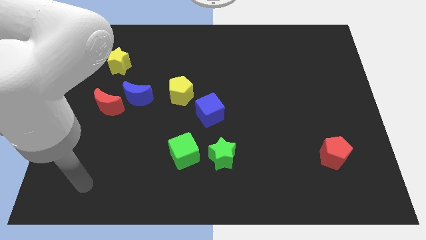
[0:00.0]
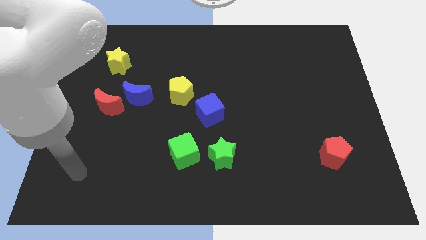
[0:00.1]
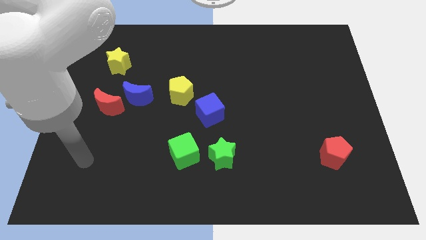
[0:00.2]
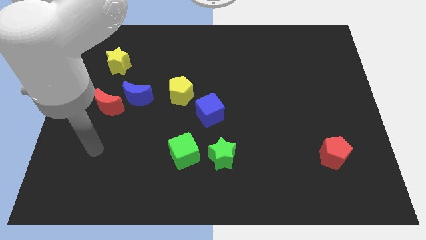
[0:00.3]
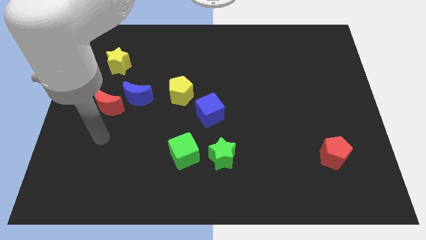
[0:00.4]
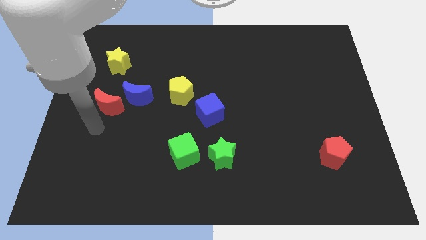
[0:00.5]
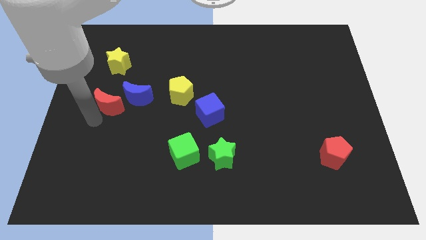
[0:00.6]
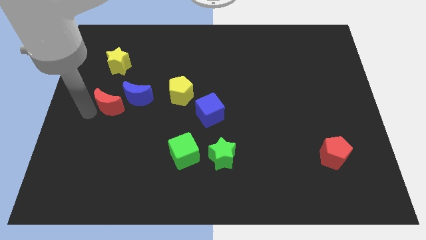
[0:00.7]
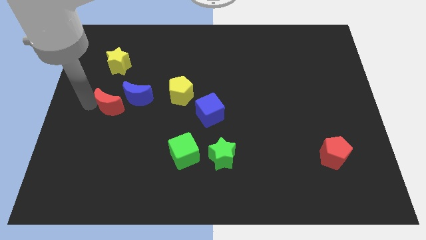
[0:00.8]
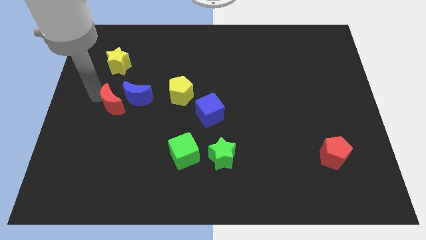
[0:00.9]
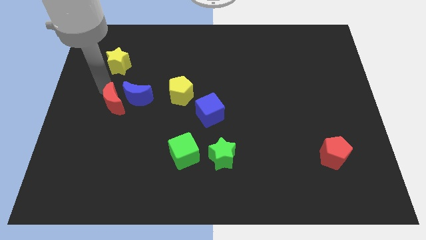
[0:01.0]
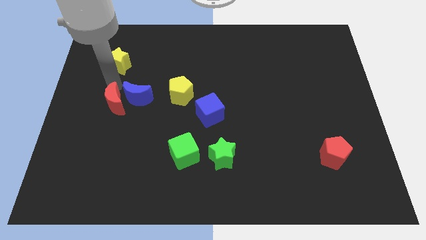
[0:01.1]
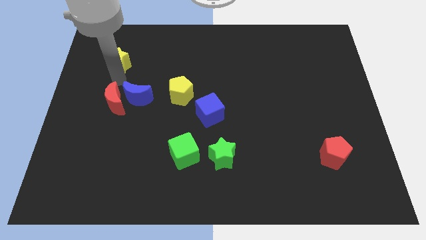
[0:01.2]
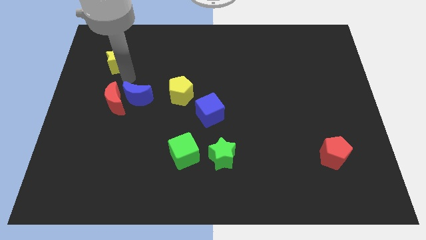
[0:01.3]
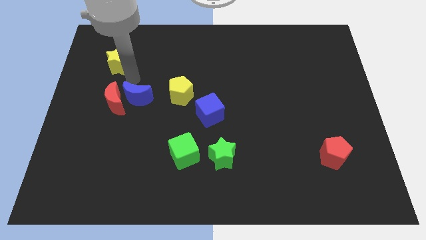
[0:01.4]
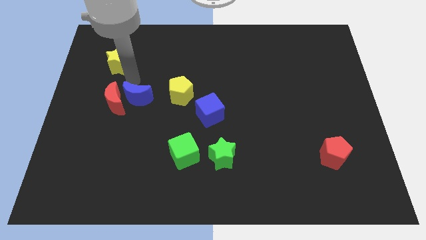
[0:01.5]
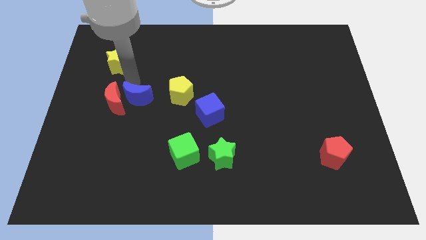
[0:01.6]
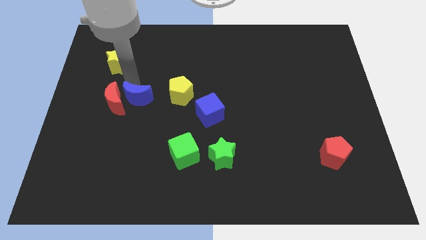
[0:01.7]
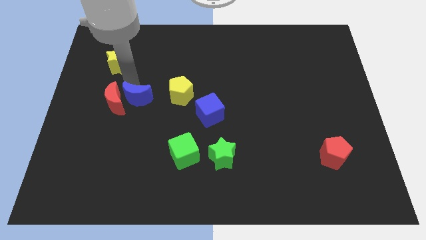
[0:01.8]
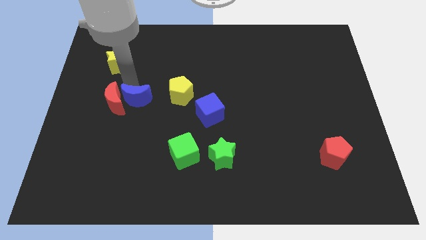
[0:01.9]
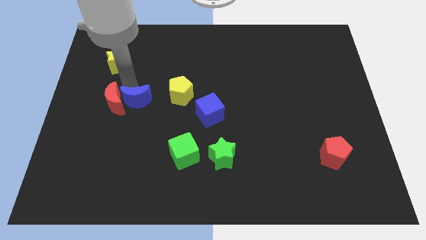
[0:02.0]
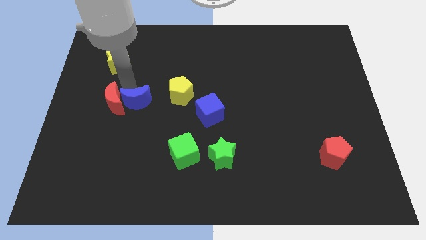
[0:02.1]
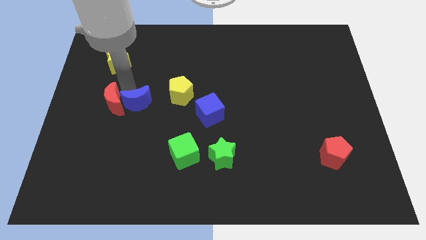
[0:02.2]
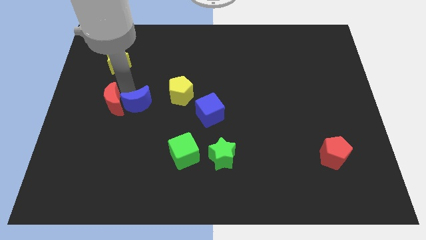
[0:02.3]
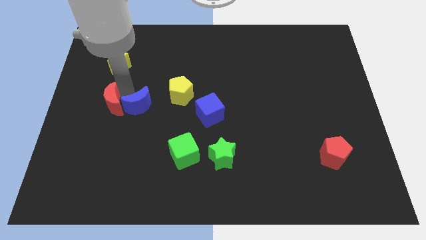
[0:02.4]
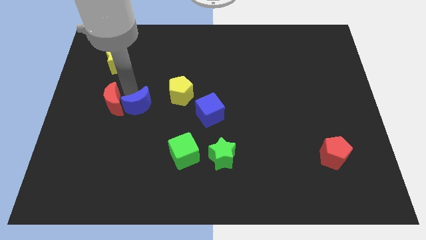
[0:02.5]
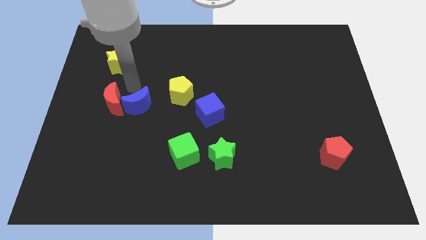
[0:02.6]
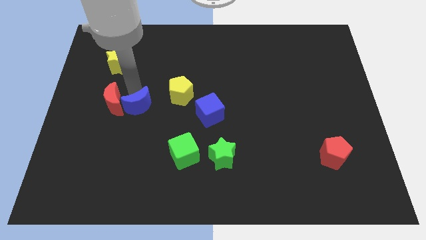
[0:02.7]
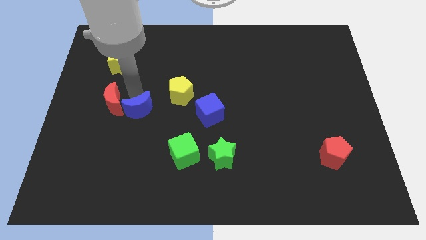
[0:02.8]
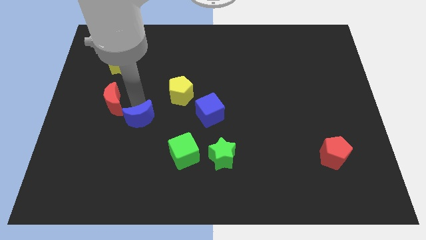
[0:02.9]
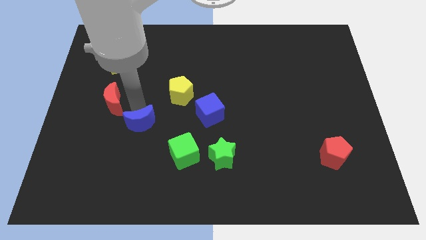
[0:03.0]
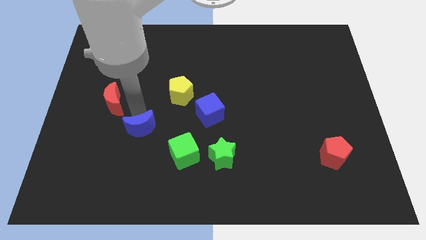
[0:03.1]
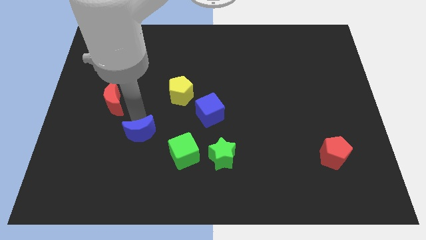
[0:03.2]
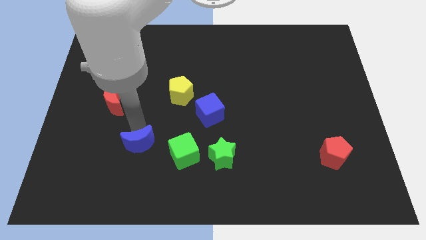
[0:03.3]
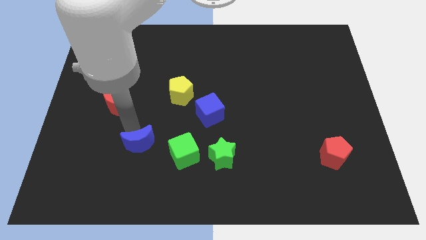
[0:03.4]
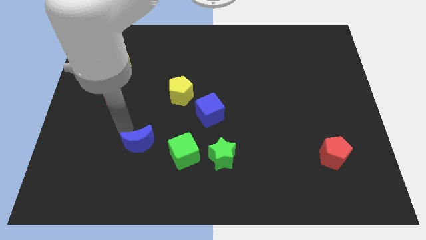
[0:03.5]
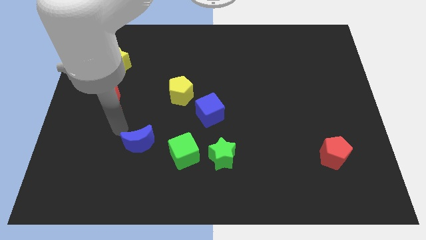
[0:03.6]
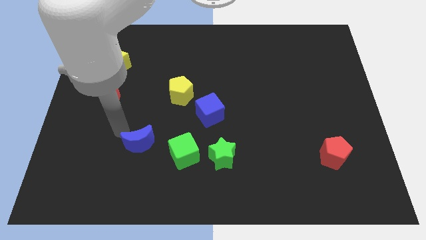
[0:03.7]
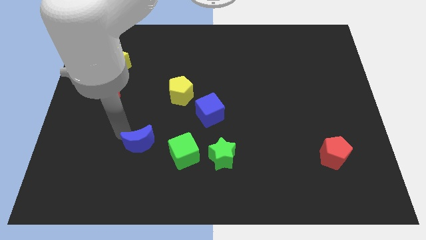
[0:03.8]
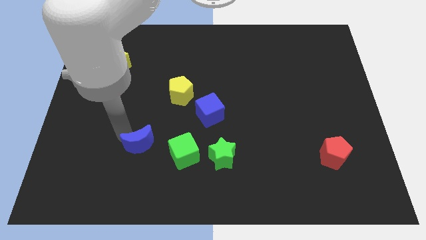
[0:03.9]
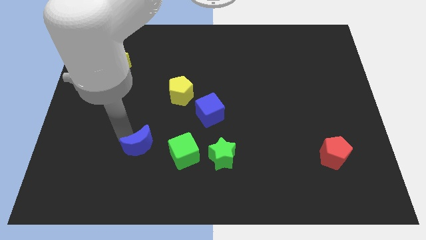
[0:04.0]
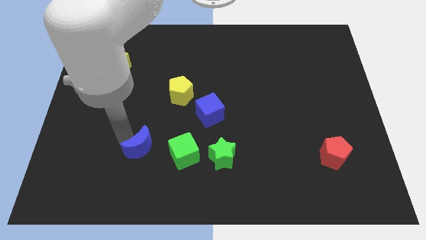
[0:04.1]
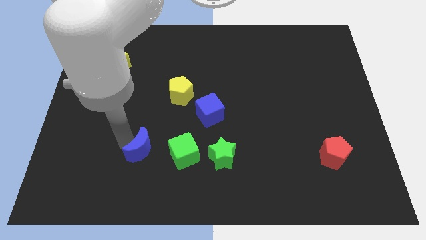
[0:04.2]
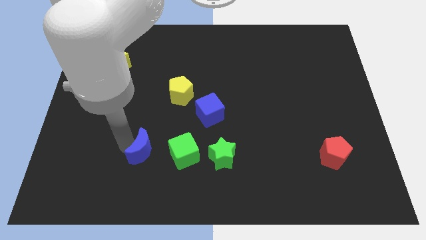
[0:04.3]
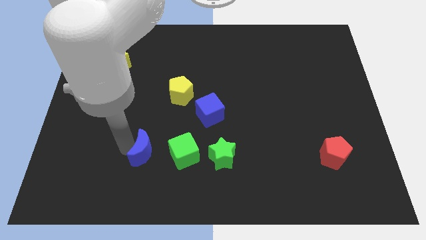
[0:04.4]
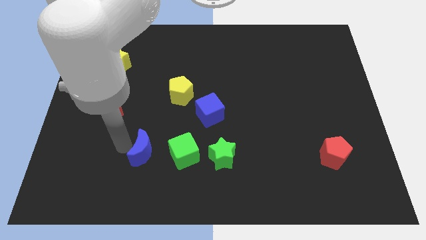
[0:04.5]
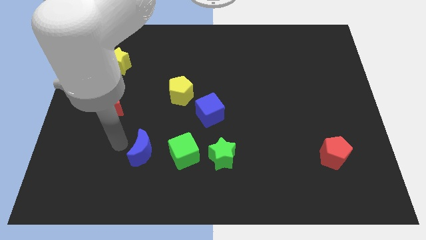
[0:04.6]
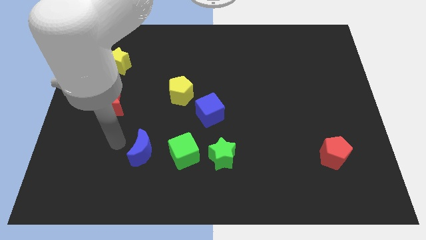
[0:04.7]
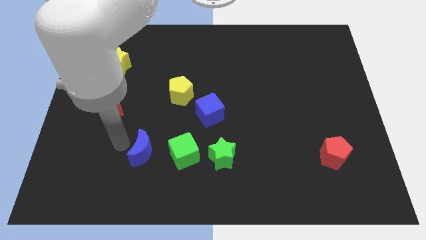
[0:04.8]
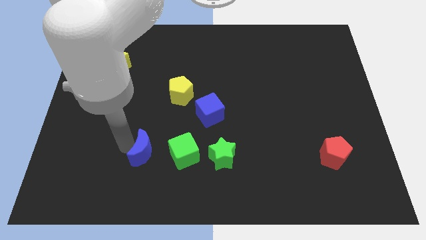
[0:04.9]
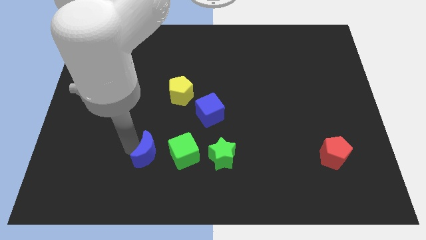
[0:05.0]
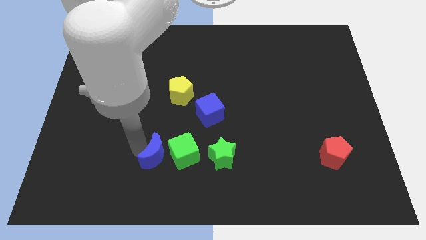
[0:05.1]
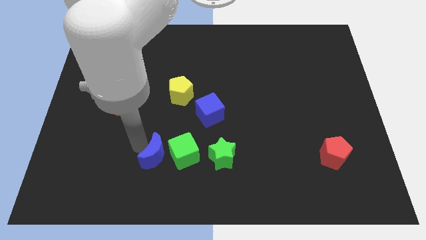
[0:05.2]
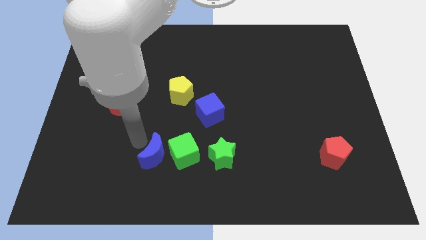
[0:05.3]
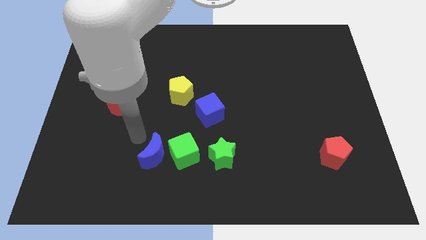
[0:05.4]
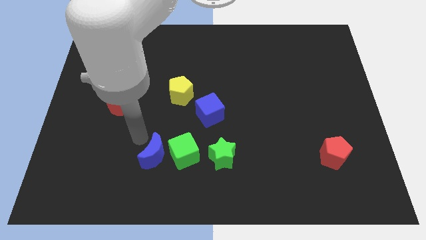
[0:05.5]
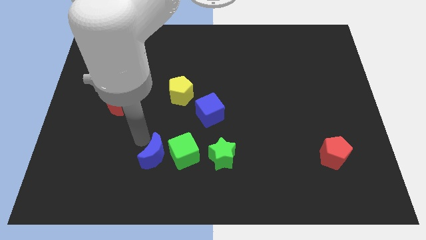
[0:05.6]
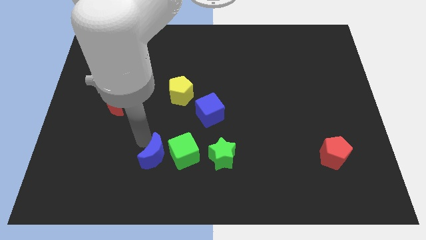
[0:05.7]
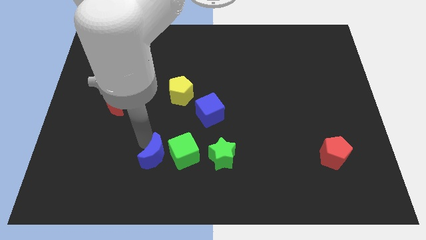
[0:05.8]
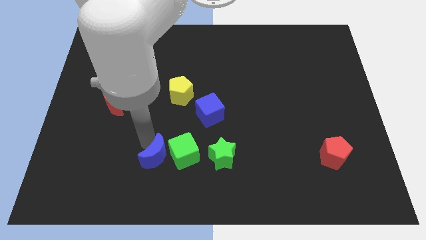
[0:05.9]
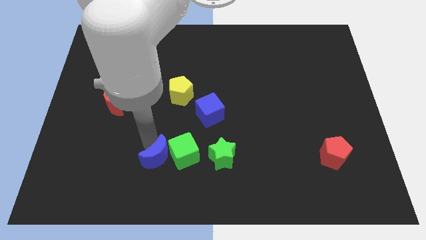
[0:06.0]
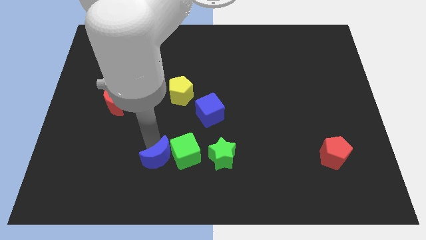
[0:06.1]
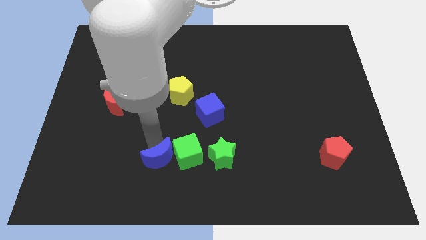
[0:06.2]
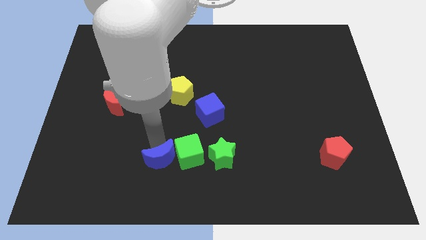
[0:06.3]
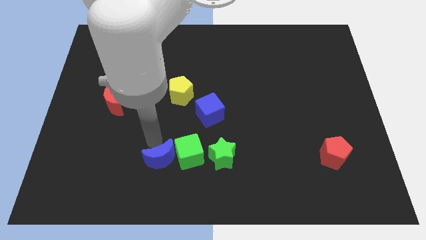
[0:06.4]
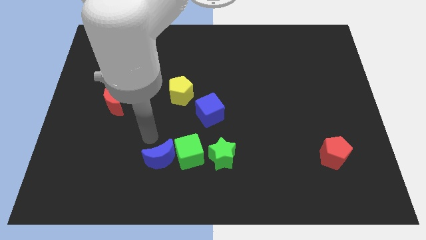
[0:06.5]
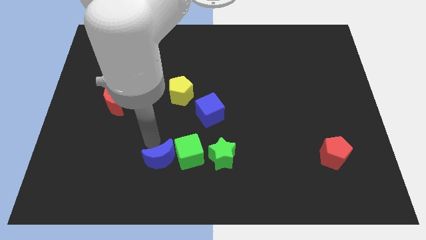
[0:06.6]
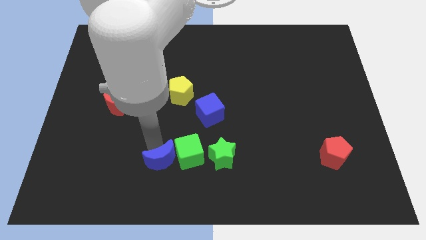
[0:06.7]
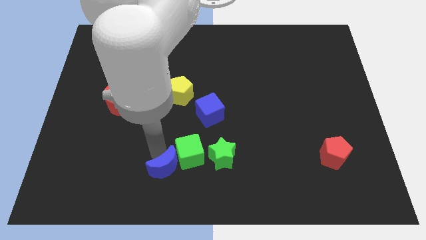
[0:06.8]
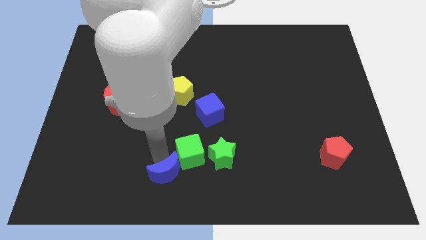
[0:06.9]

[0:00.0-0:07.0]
move the blue moon to the bottom
